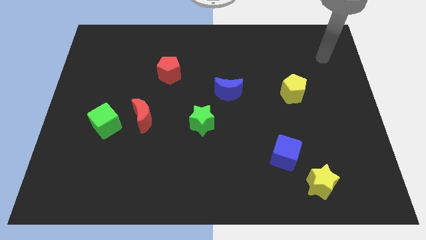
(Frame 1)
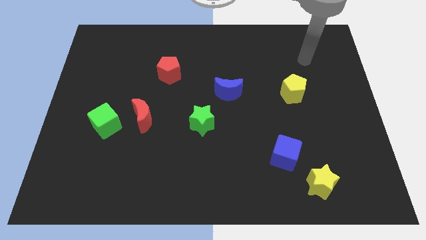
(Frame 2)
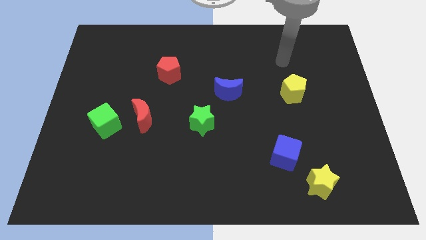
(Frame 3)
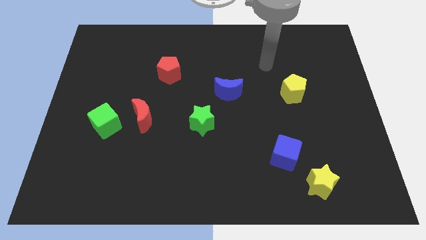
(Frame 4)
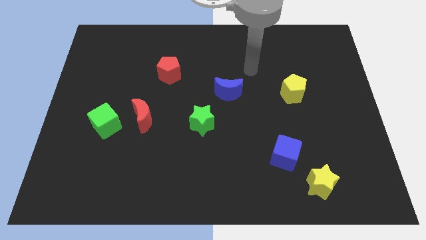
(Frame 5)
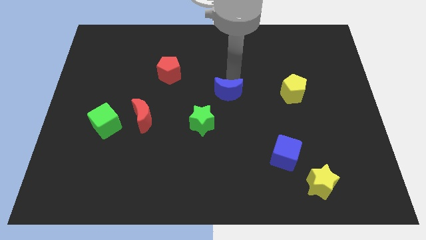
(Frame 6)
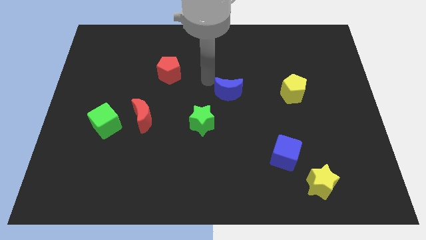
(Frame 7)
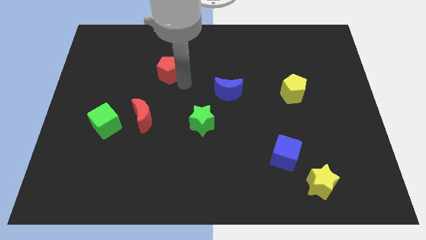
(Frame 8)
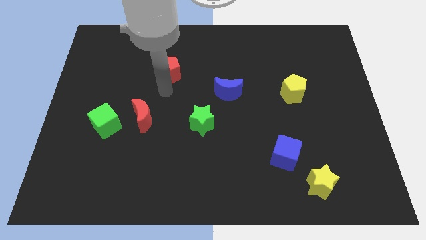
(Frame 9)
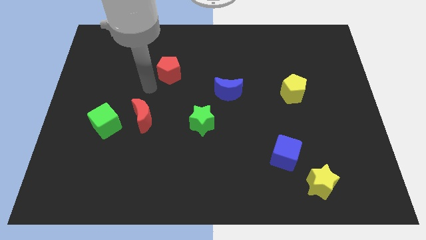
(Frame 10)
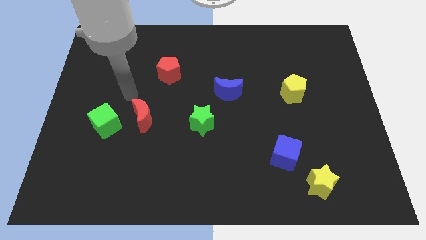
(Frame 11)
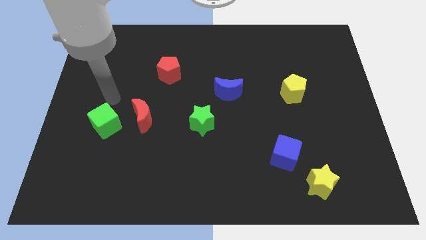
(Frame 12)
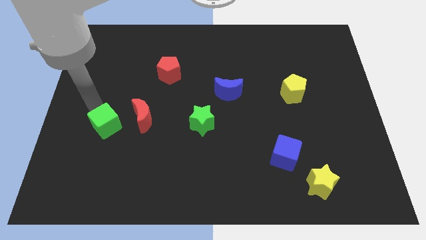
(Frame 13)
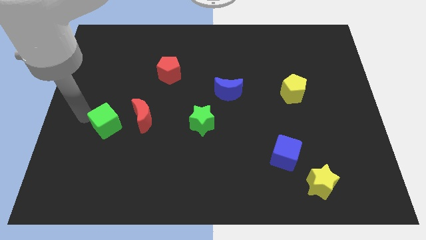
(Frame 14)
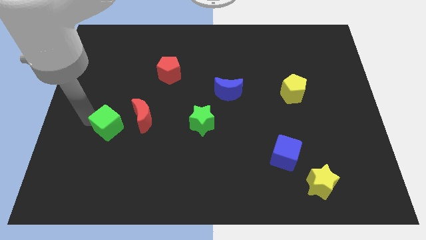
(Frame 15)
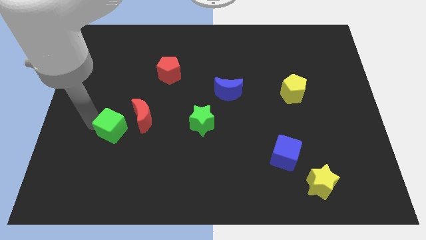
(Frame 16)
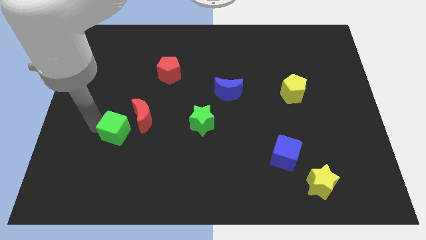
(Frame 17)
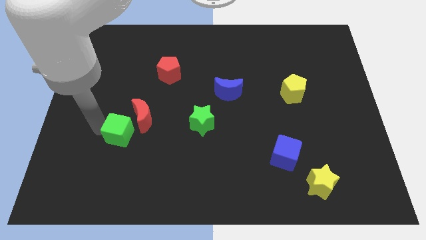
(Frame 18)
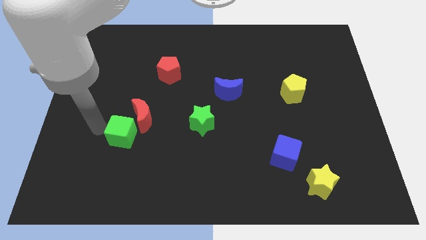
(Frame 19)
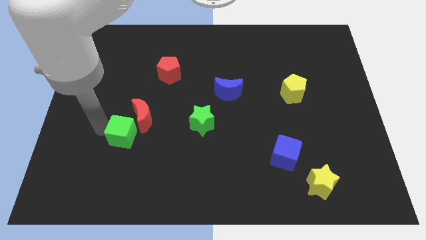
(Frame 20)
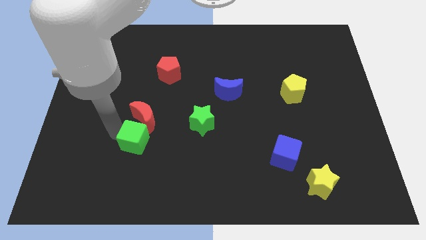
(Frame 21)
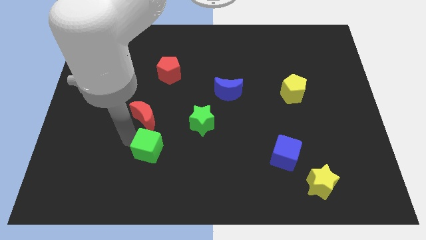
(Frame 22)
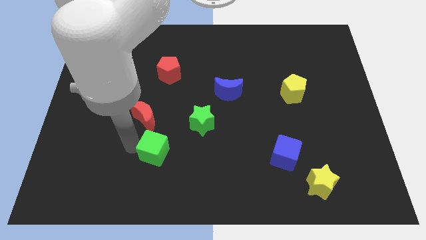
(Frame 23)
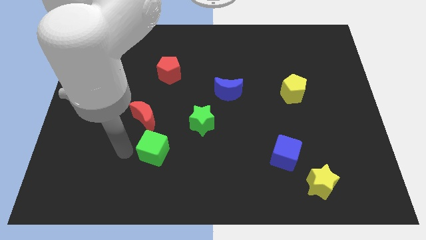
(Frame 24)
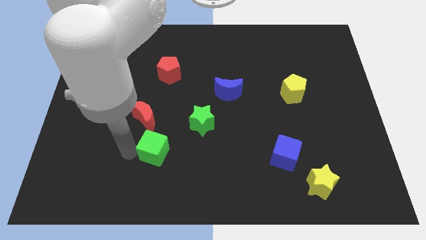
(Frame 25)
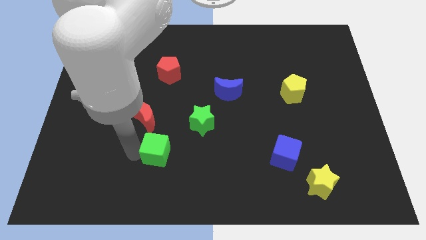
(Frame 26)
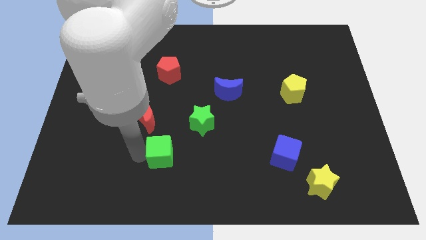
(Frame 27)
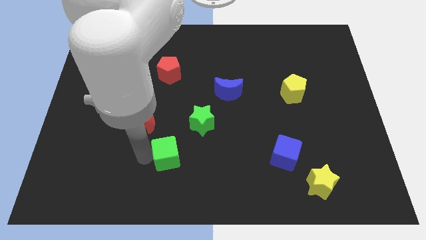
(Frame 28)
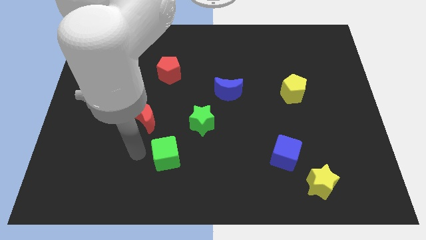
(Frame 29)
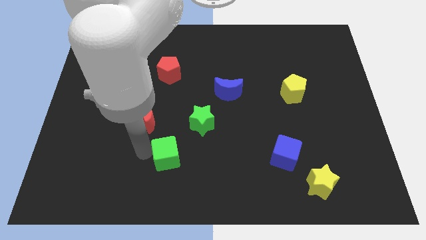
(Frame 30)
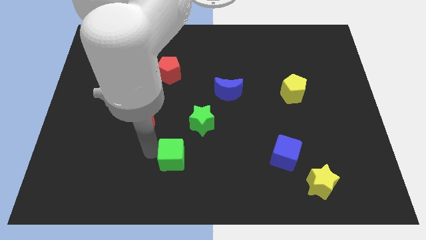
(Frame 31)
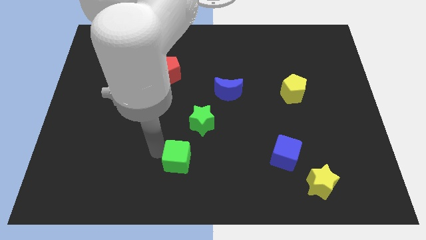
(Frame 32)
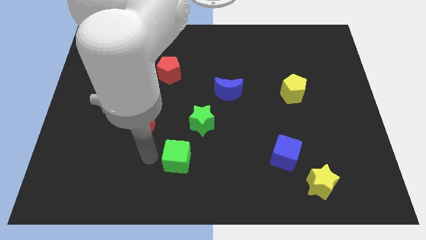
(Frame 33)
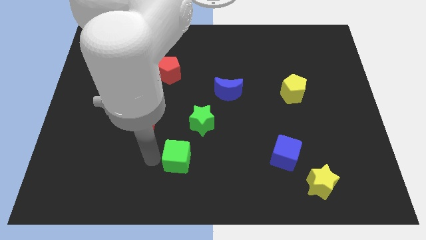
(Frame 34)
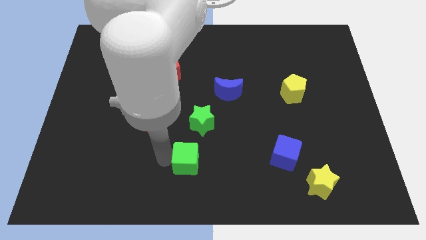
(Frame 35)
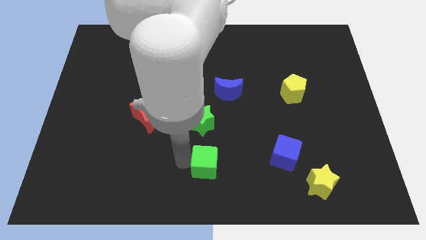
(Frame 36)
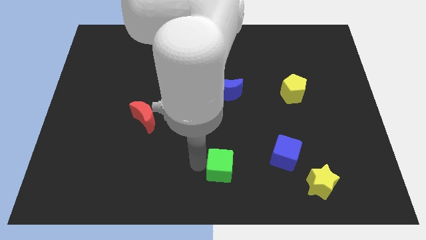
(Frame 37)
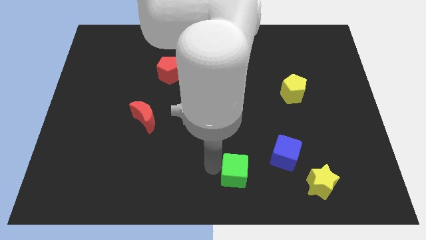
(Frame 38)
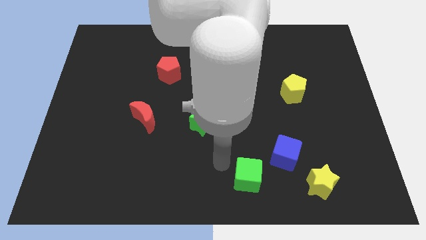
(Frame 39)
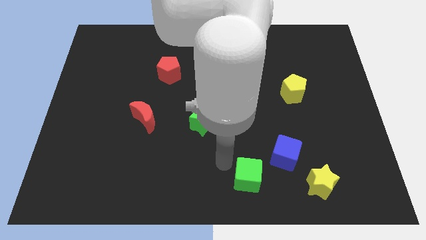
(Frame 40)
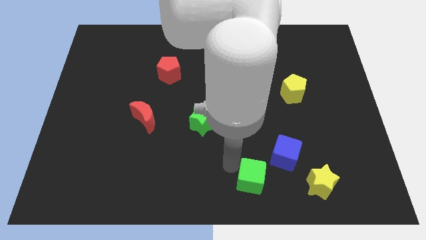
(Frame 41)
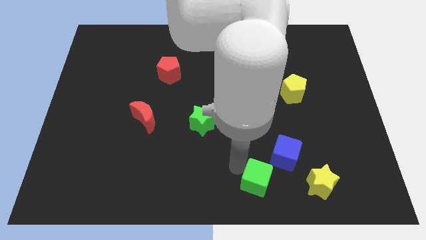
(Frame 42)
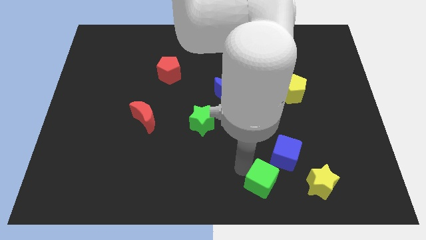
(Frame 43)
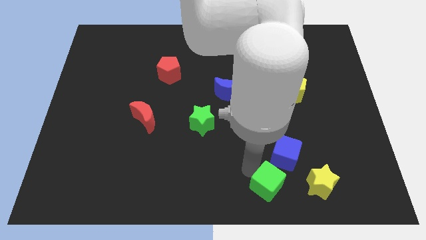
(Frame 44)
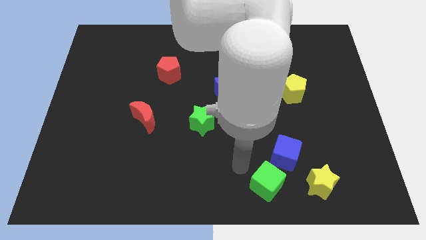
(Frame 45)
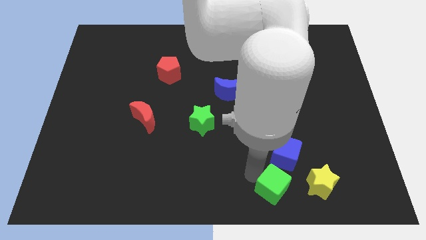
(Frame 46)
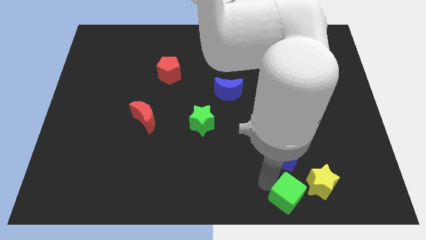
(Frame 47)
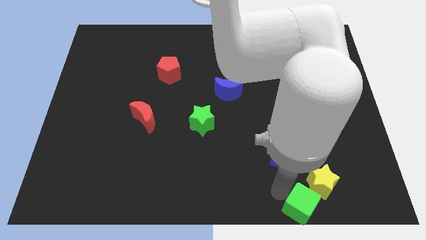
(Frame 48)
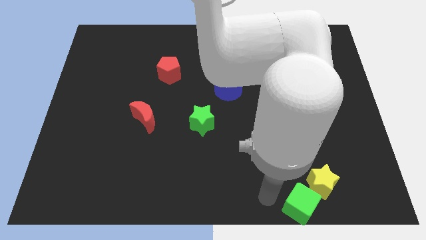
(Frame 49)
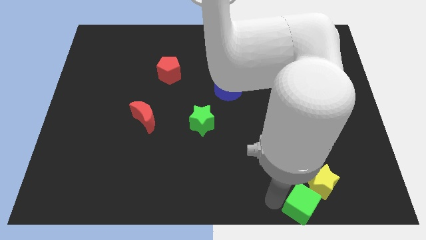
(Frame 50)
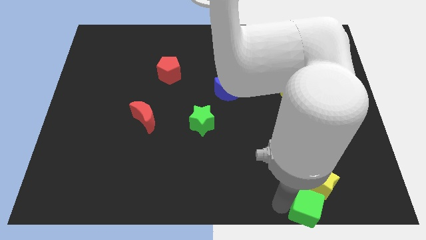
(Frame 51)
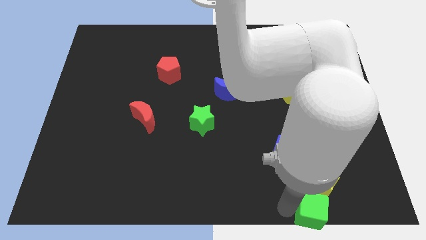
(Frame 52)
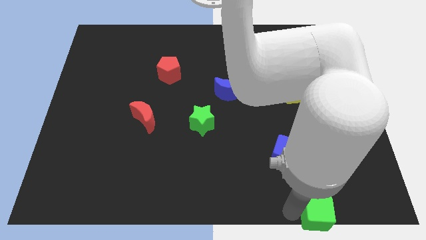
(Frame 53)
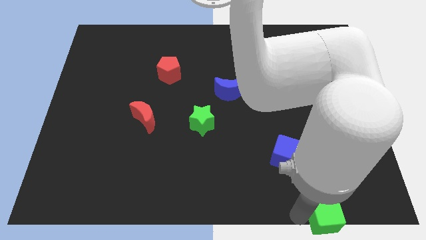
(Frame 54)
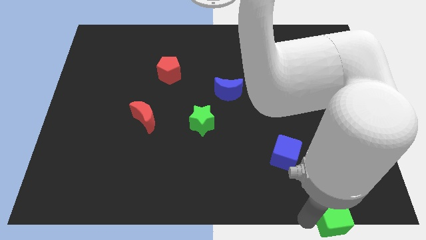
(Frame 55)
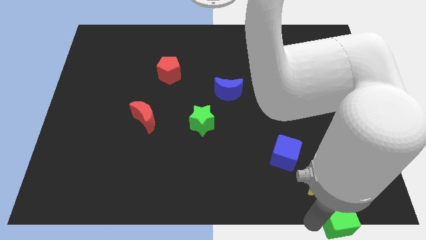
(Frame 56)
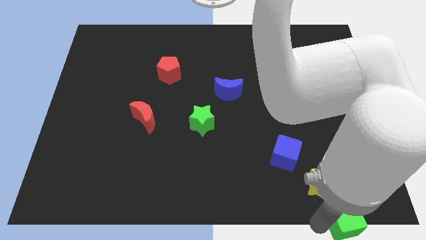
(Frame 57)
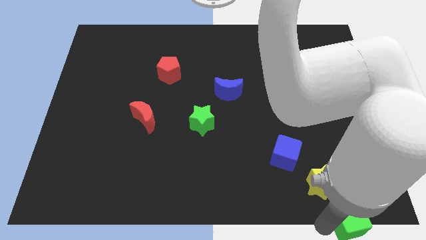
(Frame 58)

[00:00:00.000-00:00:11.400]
slide the green cube to the bottom right corner
